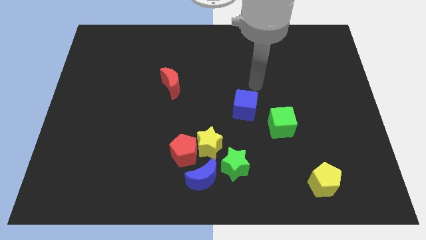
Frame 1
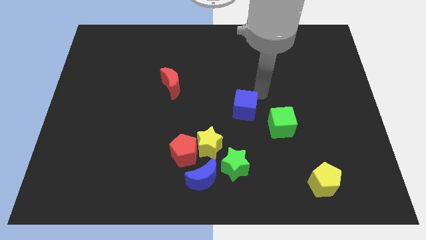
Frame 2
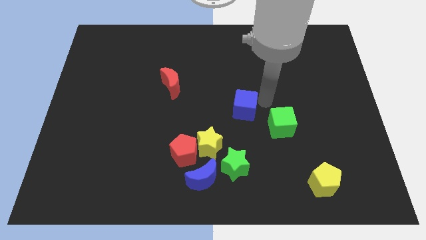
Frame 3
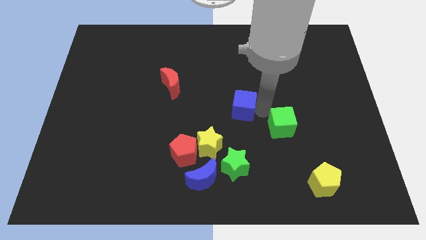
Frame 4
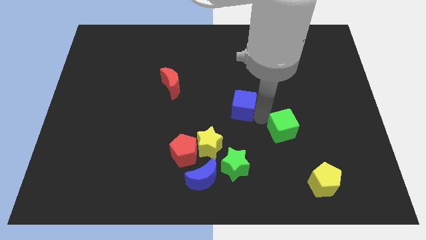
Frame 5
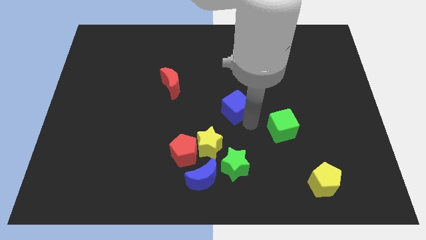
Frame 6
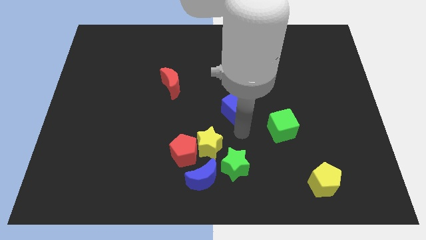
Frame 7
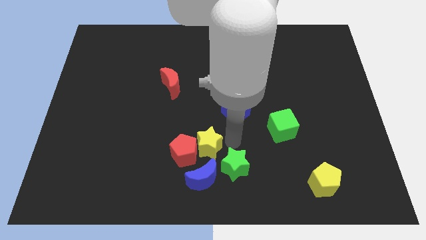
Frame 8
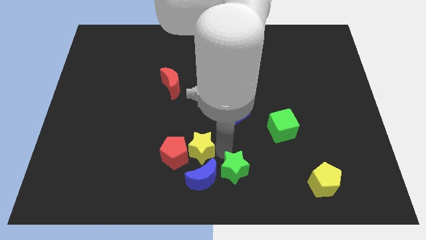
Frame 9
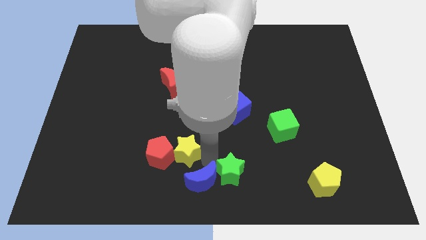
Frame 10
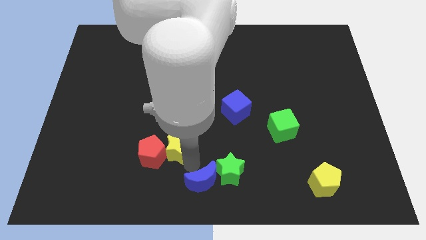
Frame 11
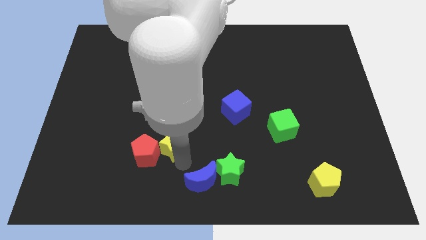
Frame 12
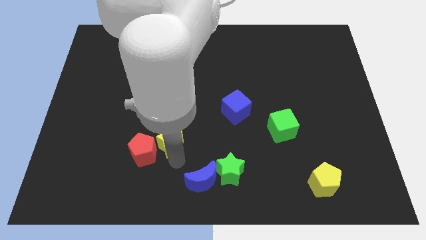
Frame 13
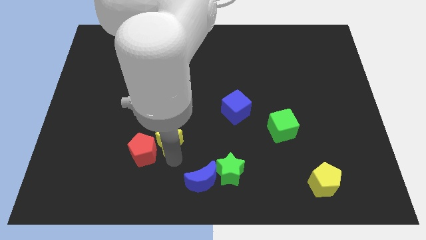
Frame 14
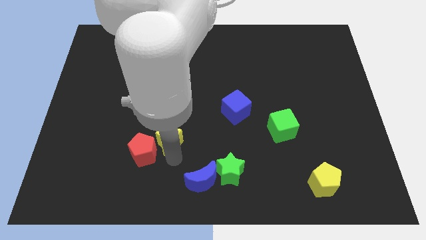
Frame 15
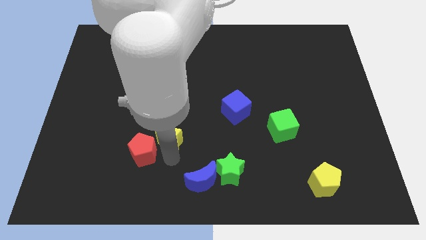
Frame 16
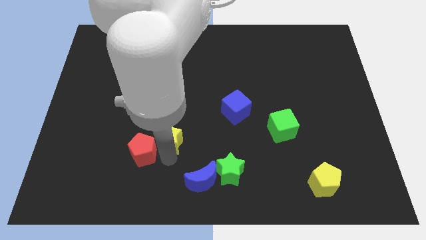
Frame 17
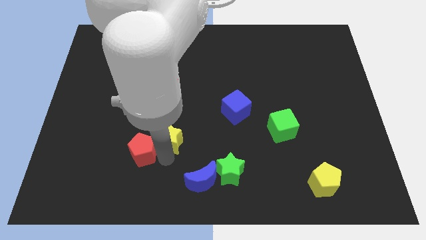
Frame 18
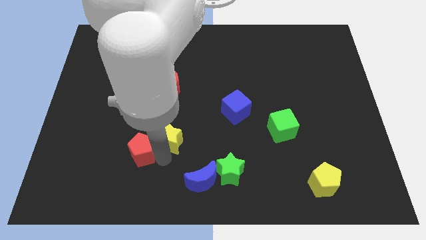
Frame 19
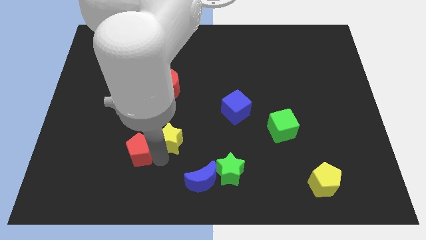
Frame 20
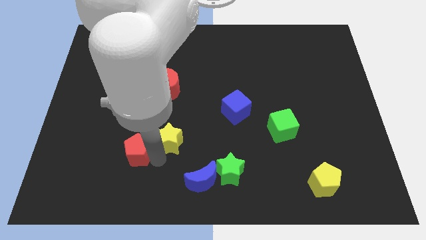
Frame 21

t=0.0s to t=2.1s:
separate the red pentagon from the yellow star and blue moon

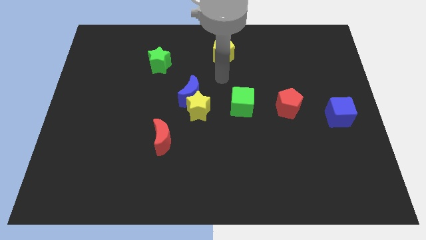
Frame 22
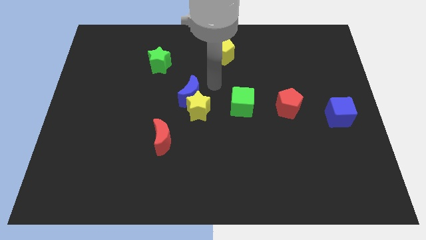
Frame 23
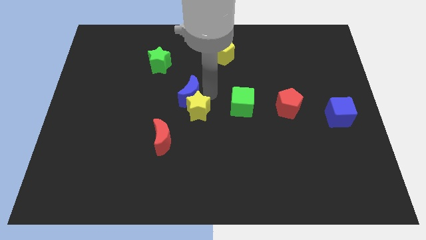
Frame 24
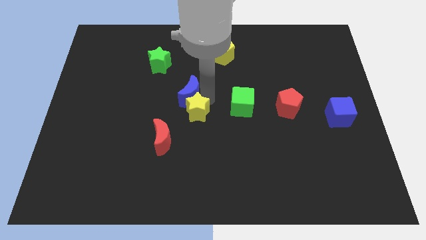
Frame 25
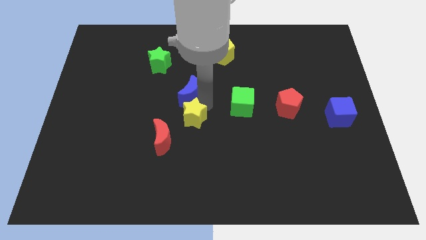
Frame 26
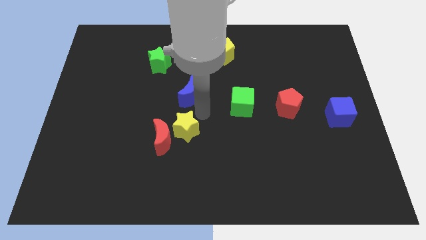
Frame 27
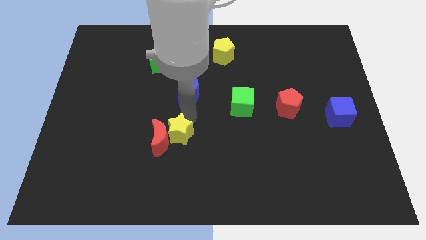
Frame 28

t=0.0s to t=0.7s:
separate the blue moon from the yellow star

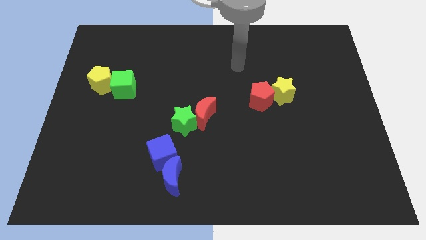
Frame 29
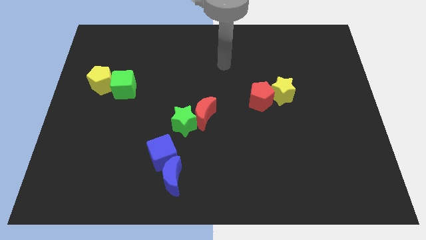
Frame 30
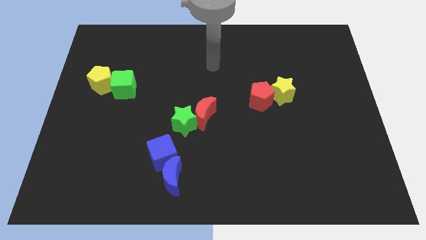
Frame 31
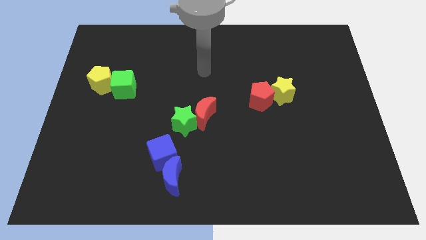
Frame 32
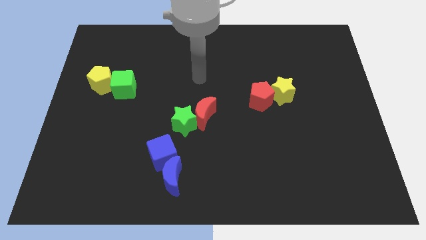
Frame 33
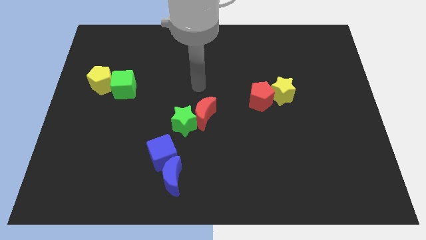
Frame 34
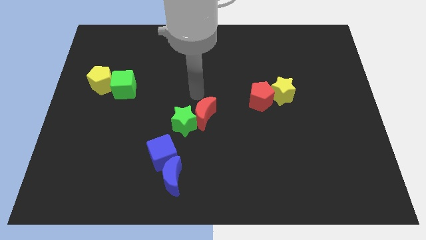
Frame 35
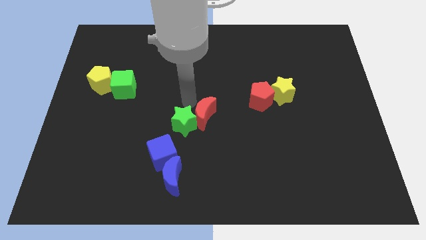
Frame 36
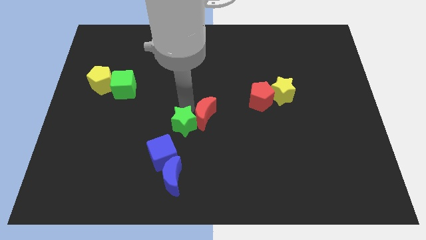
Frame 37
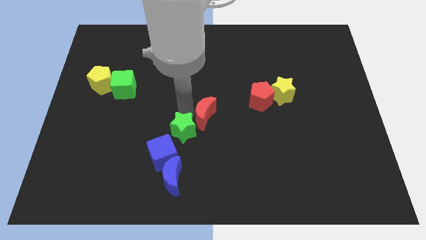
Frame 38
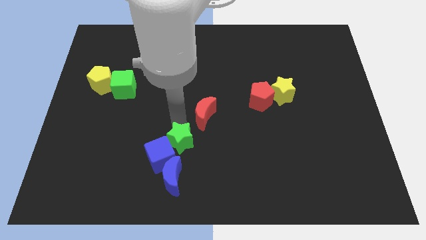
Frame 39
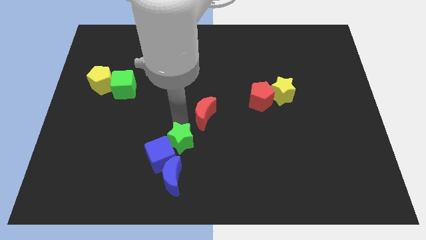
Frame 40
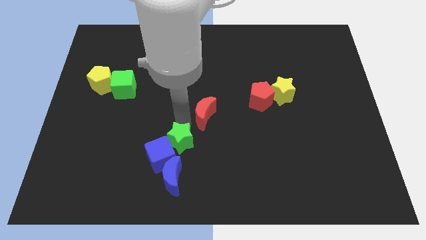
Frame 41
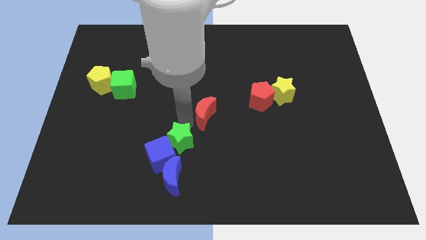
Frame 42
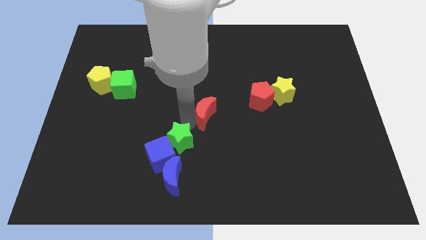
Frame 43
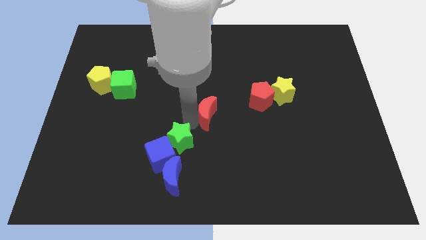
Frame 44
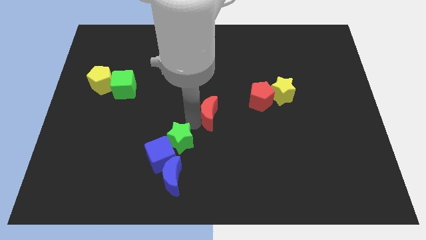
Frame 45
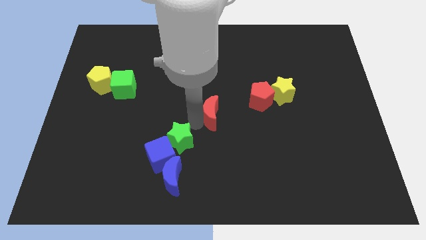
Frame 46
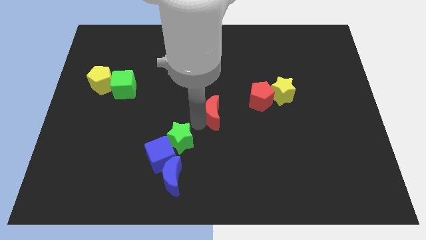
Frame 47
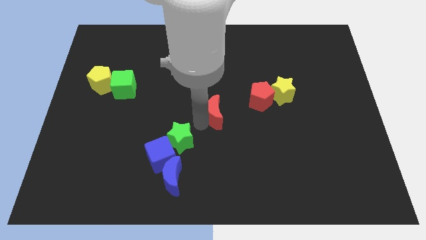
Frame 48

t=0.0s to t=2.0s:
separate the red moon from the green star

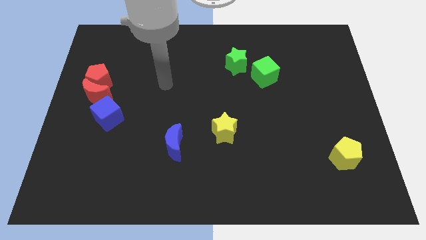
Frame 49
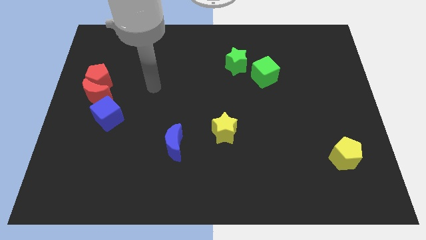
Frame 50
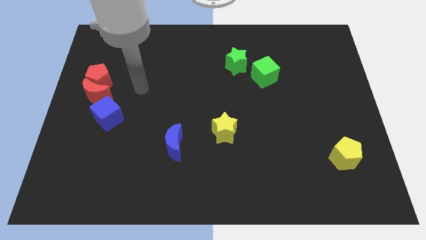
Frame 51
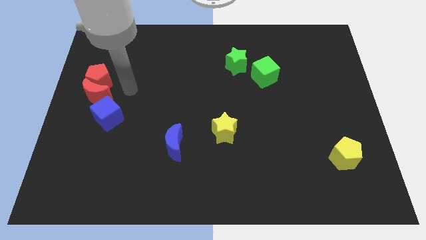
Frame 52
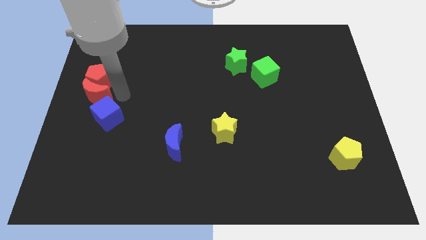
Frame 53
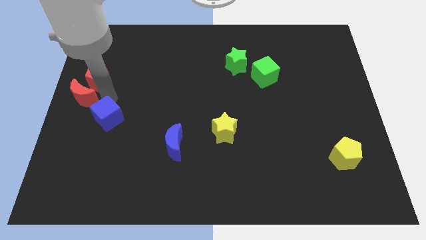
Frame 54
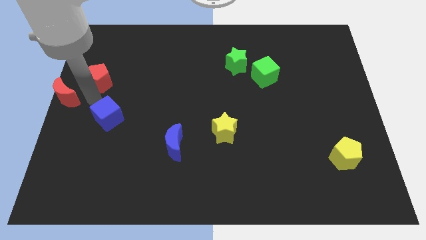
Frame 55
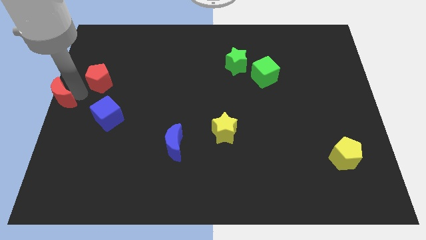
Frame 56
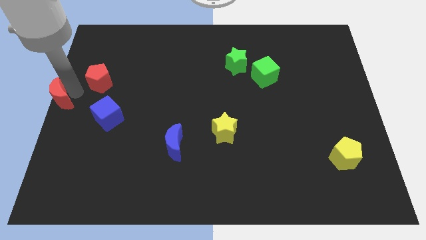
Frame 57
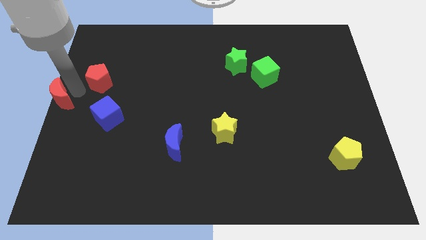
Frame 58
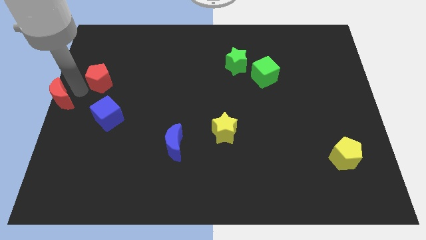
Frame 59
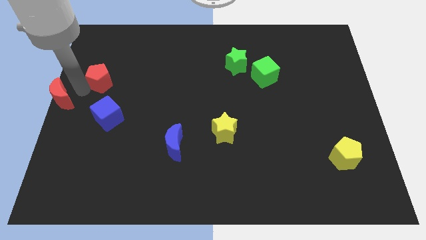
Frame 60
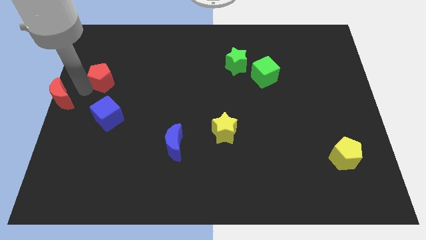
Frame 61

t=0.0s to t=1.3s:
pull the red pentagon apart from the red moon

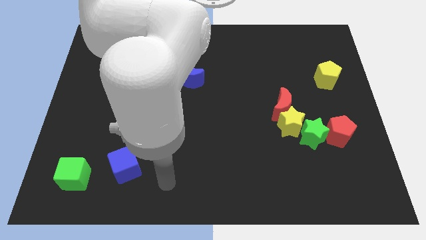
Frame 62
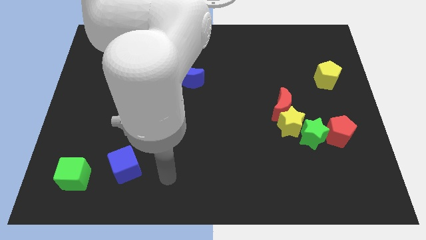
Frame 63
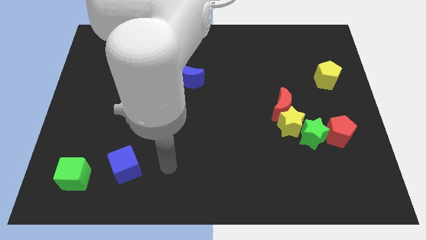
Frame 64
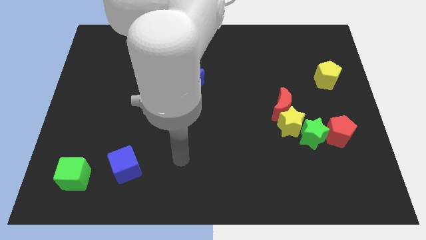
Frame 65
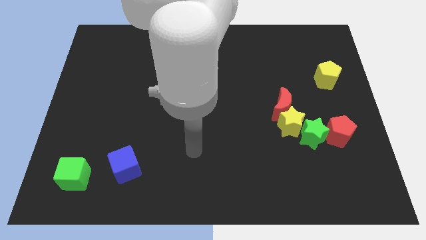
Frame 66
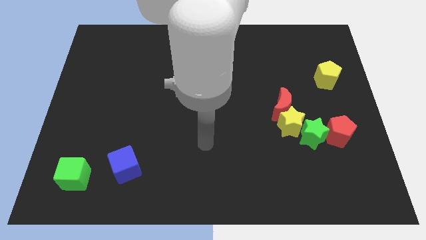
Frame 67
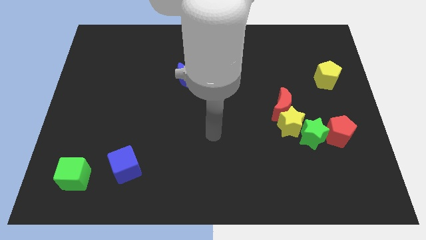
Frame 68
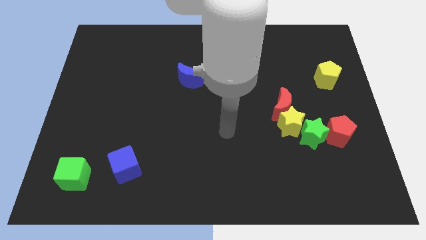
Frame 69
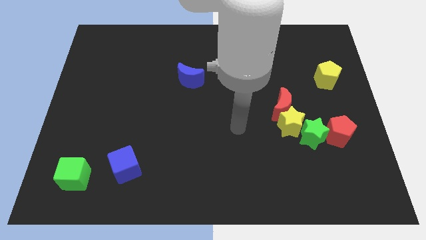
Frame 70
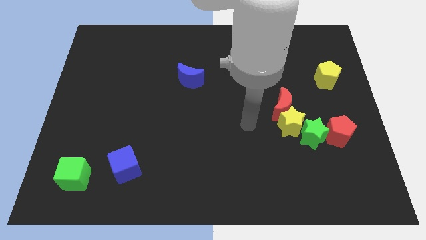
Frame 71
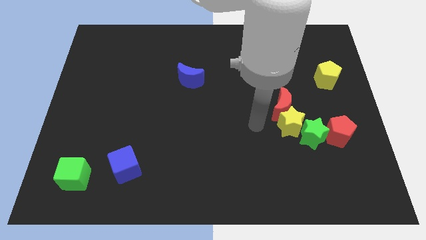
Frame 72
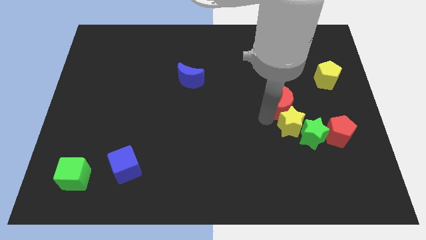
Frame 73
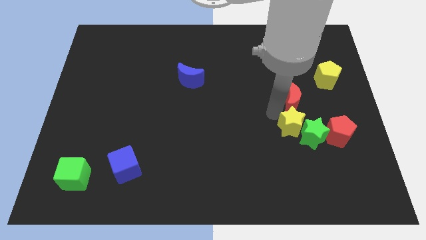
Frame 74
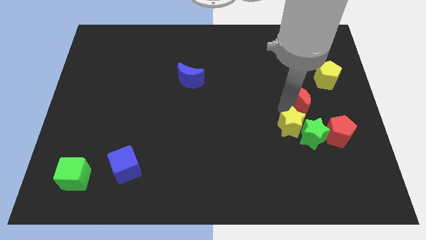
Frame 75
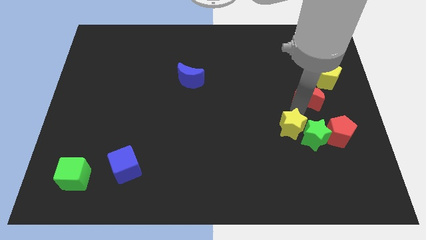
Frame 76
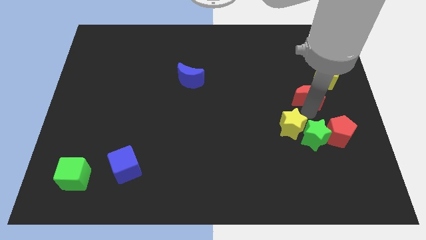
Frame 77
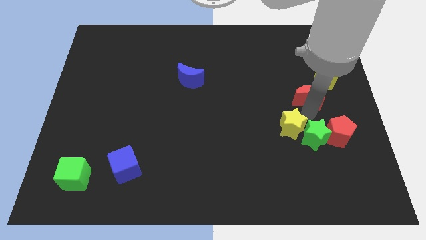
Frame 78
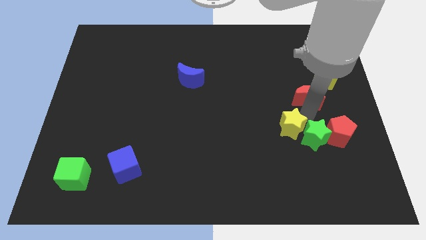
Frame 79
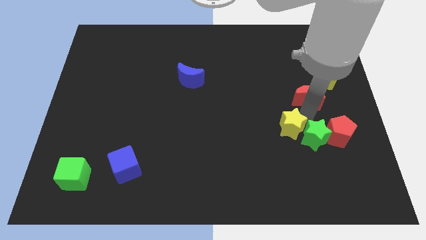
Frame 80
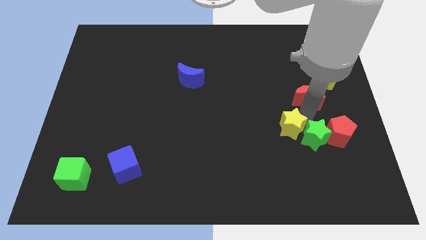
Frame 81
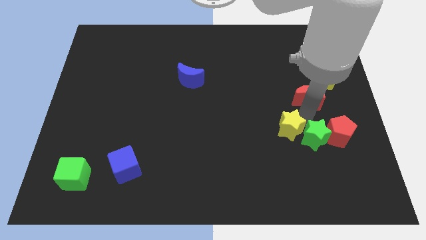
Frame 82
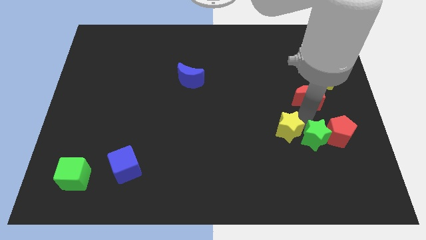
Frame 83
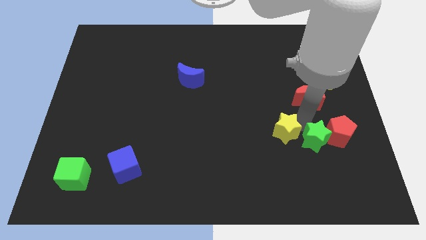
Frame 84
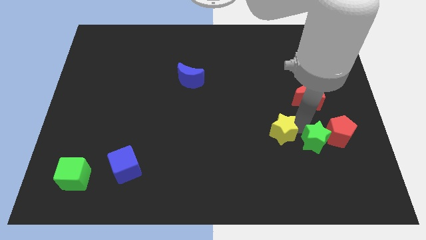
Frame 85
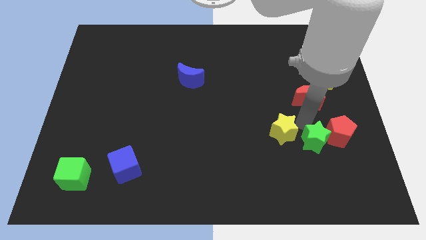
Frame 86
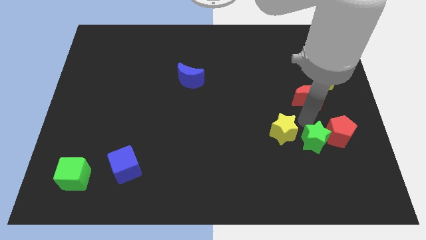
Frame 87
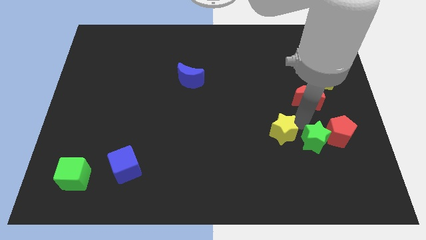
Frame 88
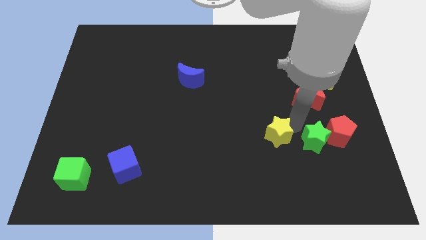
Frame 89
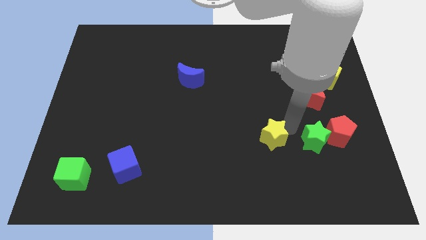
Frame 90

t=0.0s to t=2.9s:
separate the yellow star from the red moon and green star

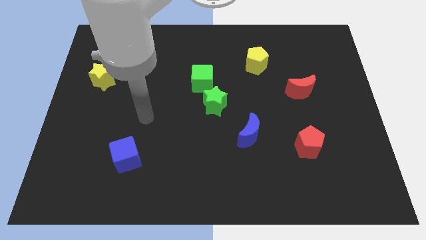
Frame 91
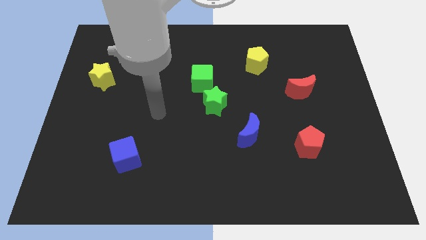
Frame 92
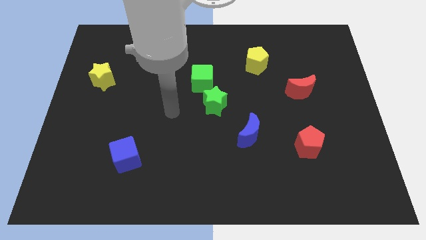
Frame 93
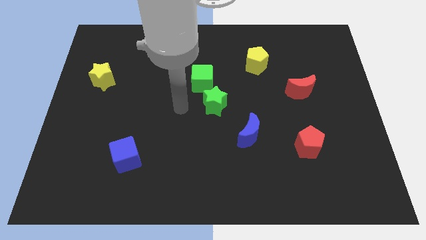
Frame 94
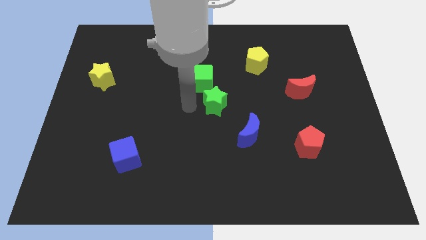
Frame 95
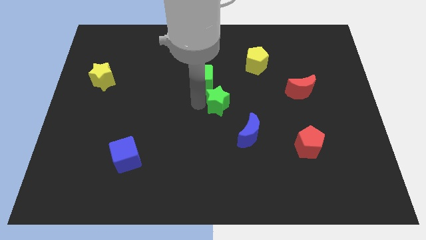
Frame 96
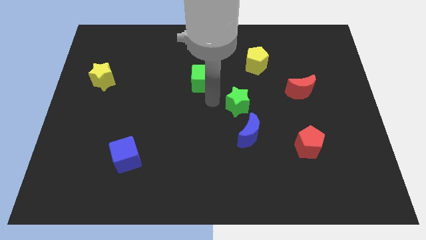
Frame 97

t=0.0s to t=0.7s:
pull the green cube apart from the green star
